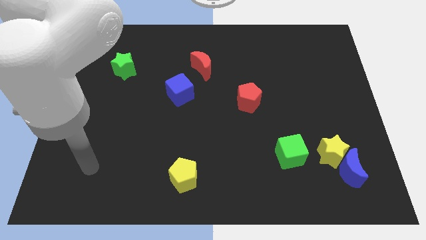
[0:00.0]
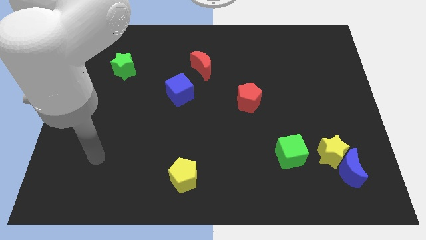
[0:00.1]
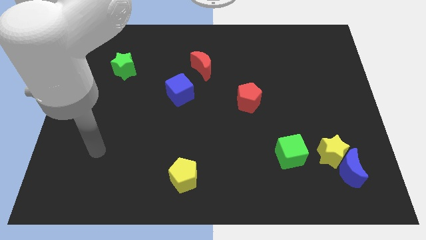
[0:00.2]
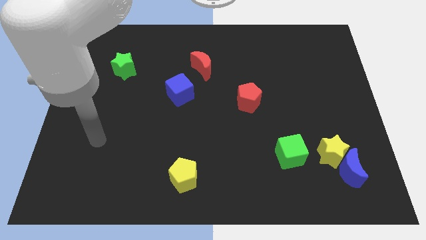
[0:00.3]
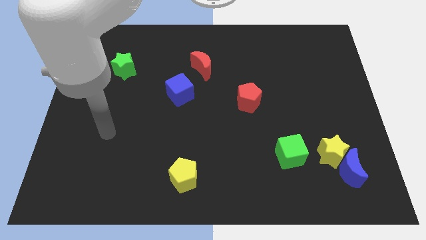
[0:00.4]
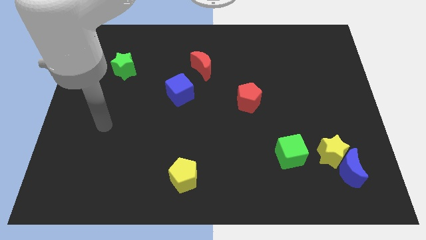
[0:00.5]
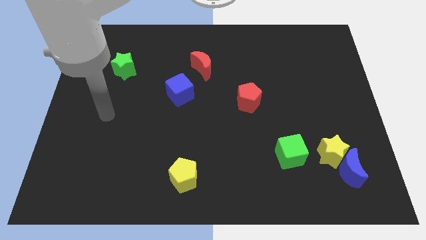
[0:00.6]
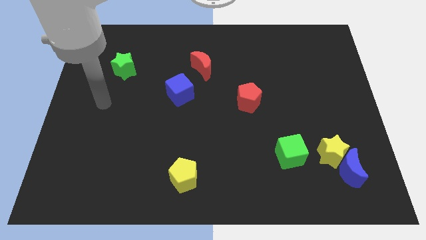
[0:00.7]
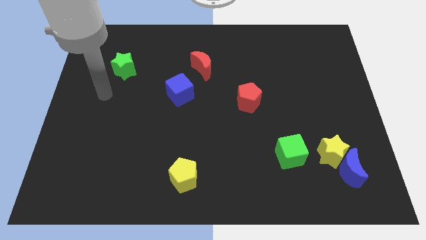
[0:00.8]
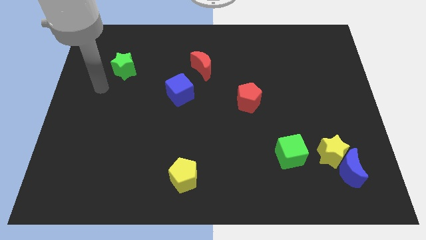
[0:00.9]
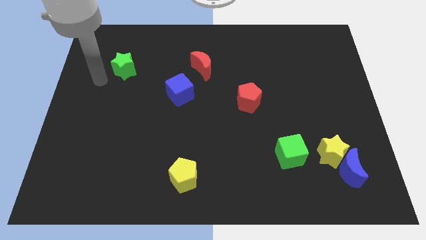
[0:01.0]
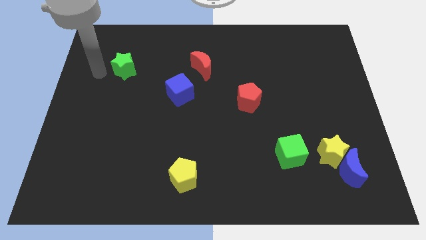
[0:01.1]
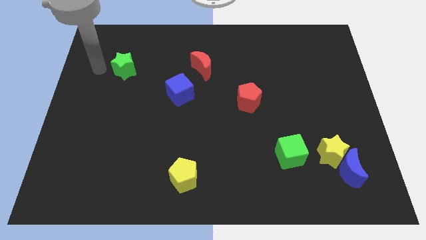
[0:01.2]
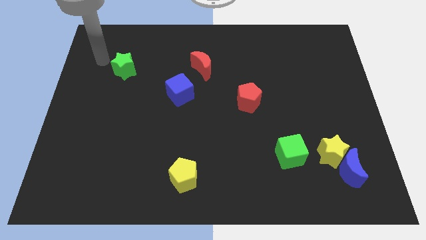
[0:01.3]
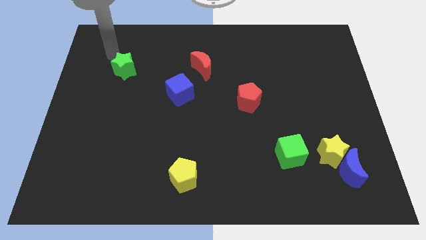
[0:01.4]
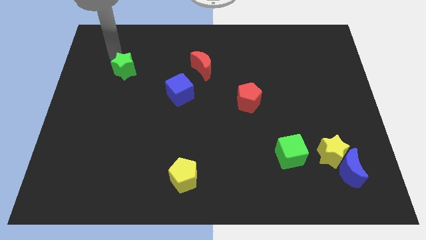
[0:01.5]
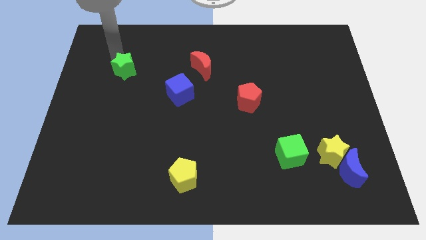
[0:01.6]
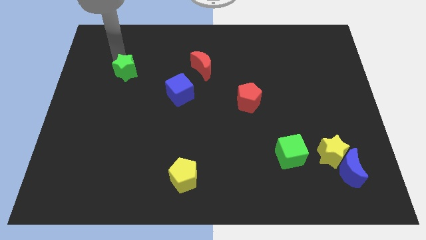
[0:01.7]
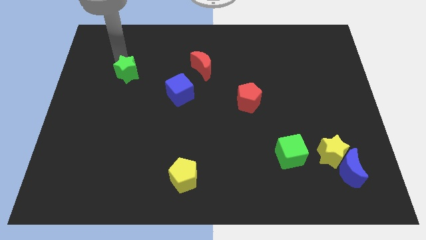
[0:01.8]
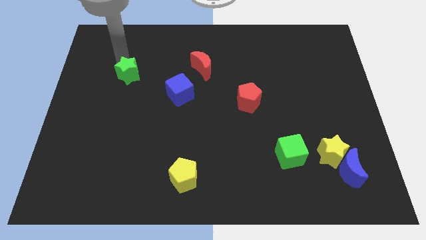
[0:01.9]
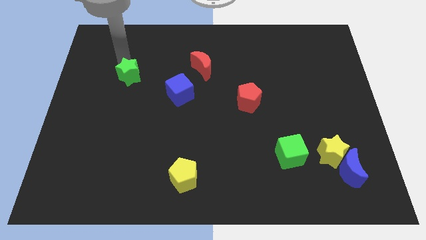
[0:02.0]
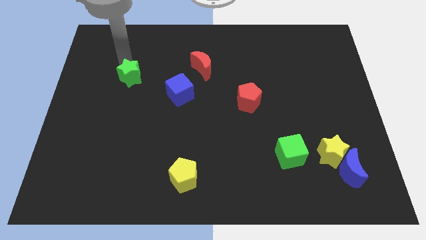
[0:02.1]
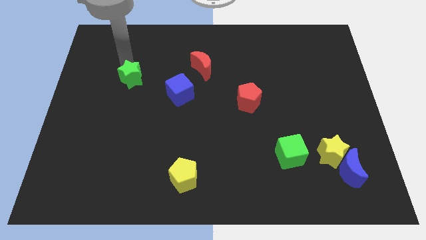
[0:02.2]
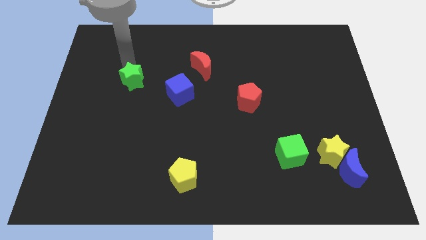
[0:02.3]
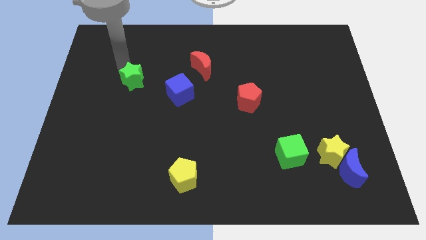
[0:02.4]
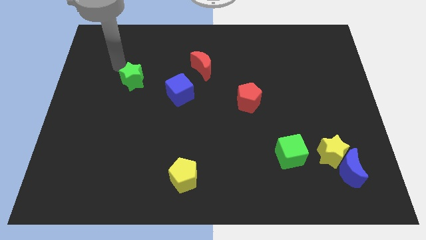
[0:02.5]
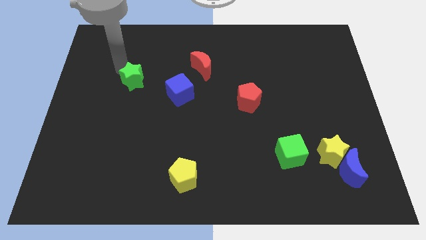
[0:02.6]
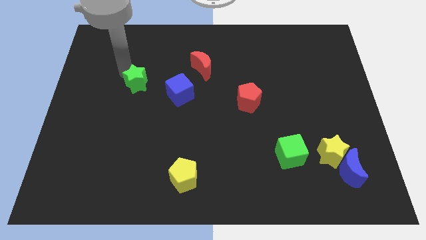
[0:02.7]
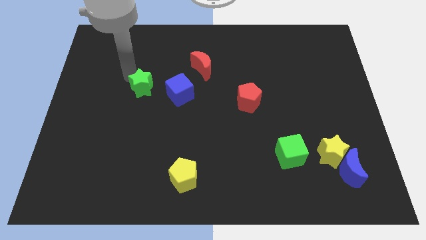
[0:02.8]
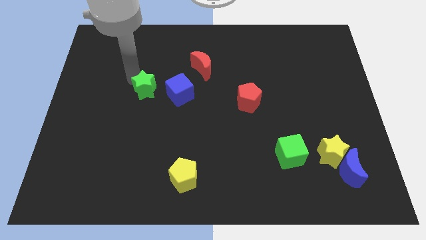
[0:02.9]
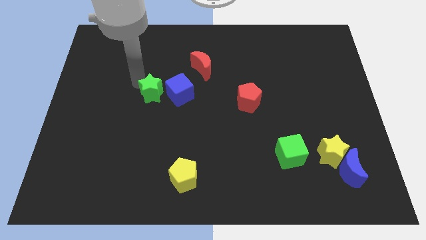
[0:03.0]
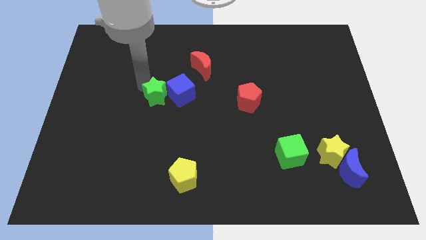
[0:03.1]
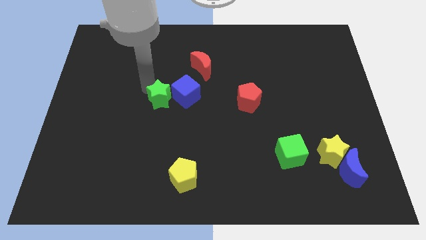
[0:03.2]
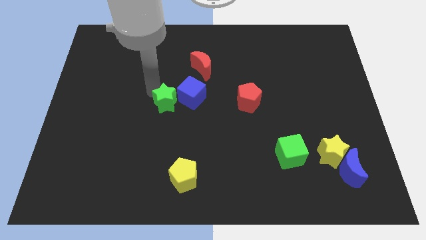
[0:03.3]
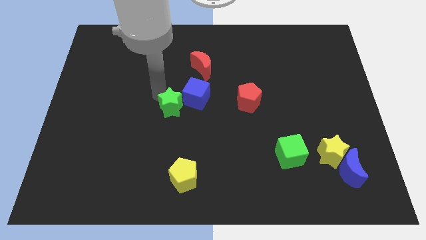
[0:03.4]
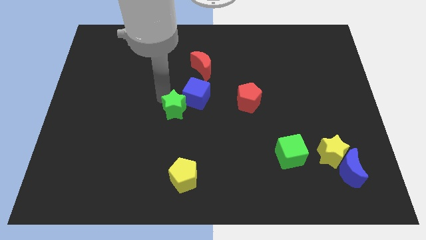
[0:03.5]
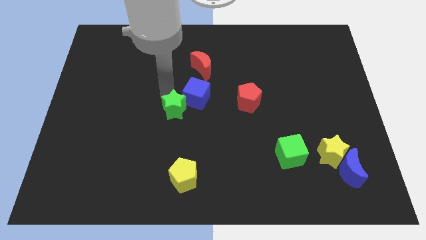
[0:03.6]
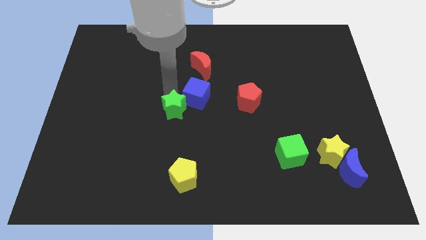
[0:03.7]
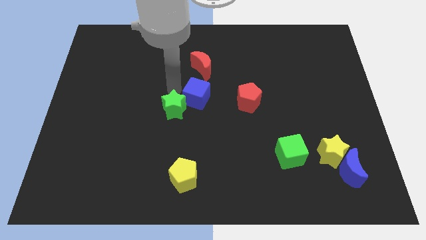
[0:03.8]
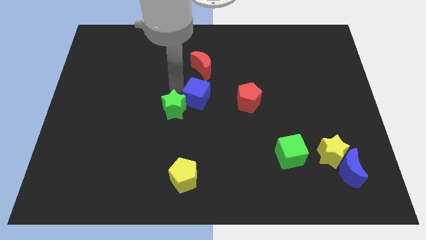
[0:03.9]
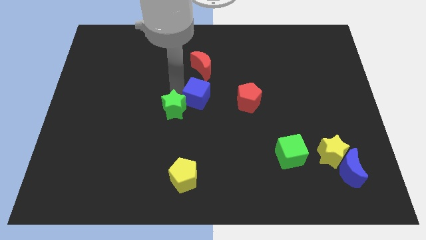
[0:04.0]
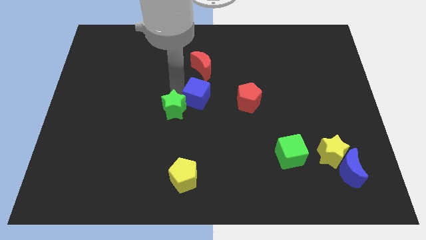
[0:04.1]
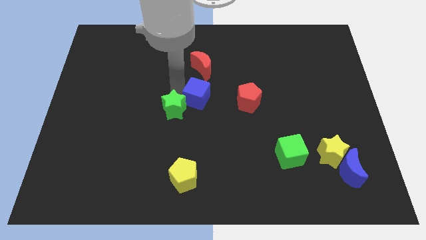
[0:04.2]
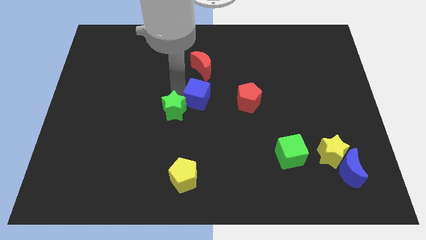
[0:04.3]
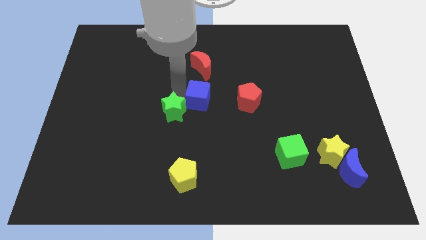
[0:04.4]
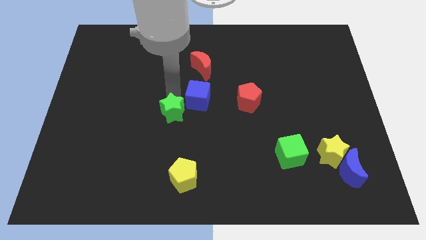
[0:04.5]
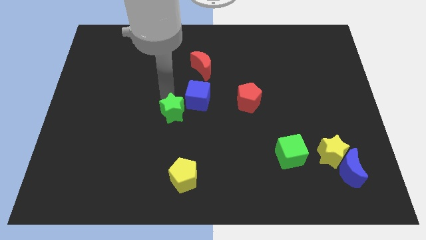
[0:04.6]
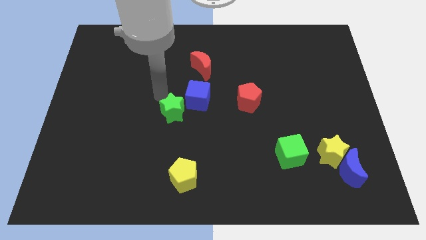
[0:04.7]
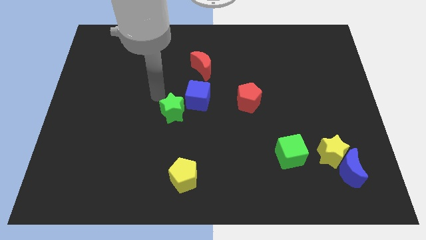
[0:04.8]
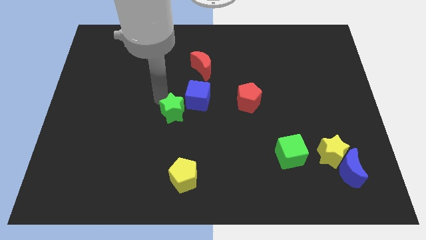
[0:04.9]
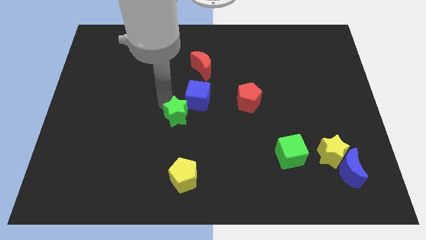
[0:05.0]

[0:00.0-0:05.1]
move the green star downwards and then to the right

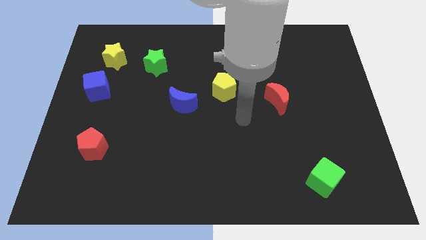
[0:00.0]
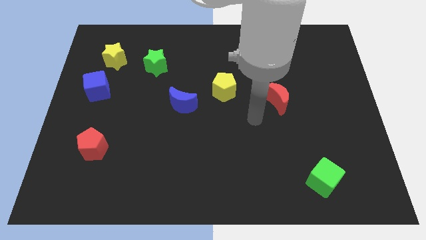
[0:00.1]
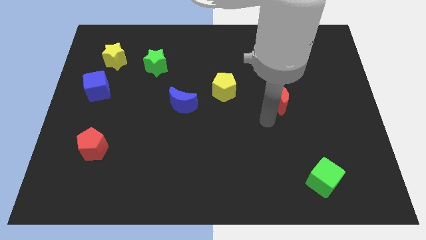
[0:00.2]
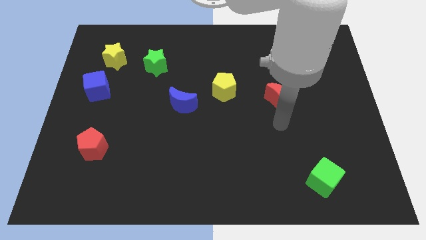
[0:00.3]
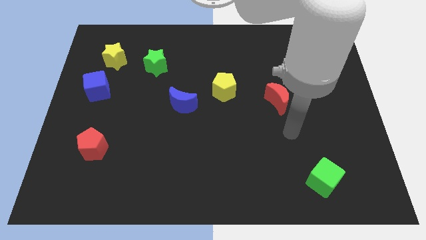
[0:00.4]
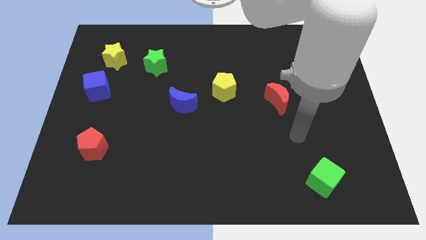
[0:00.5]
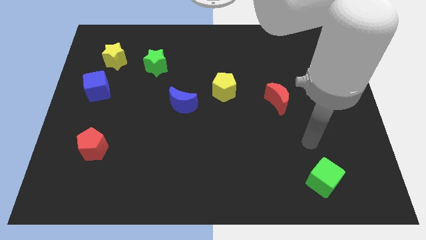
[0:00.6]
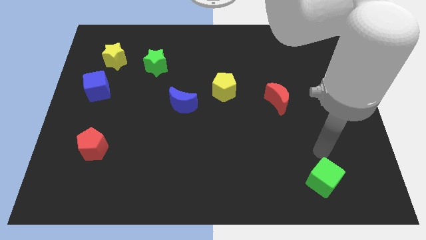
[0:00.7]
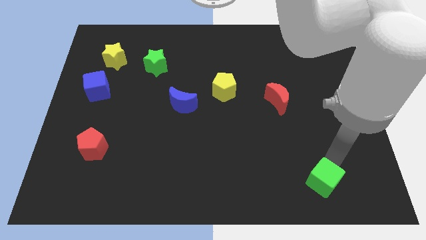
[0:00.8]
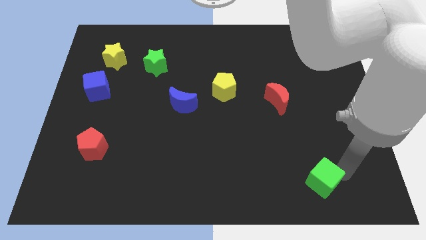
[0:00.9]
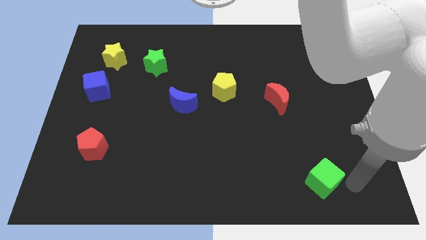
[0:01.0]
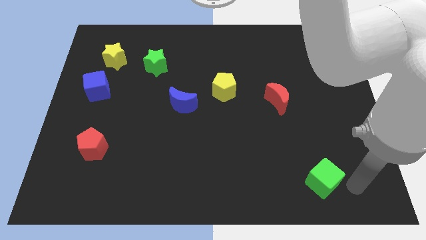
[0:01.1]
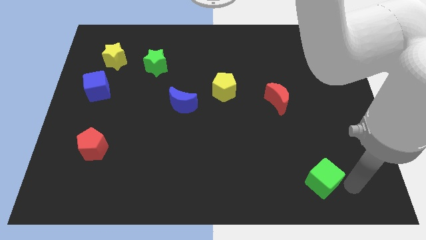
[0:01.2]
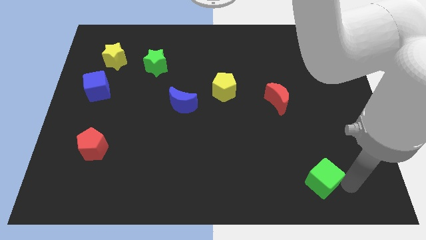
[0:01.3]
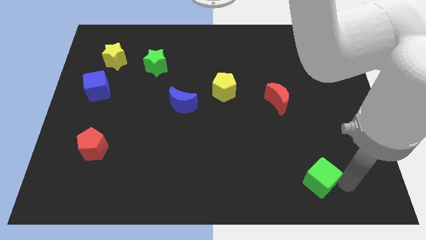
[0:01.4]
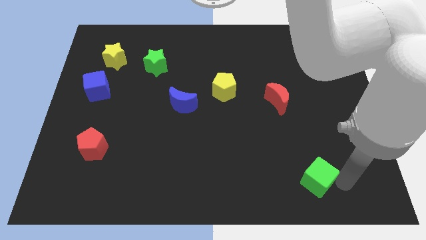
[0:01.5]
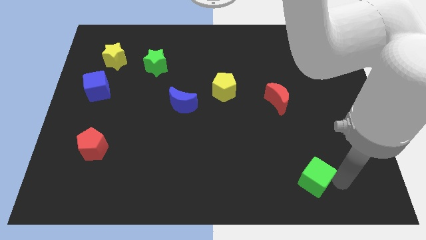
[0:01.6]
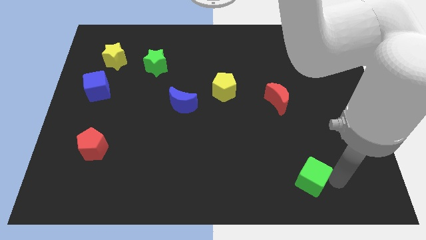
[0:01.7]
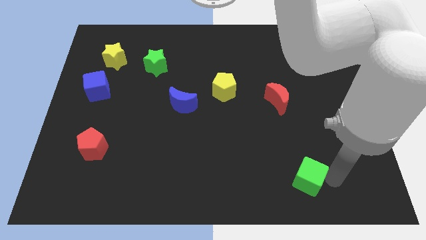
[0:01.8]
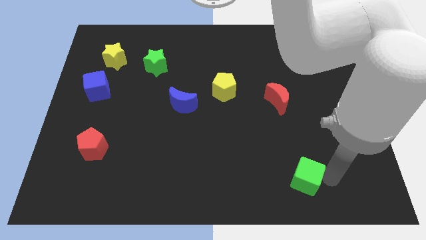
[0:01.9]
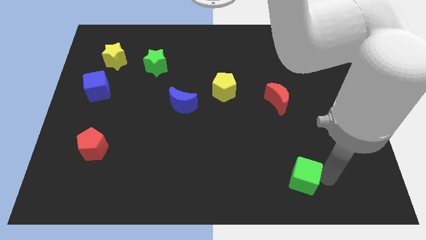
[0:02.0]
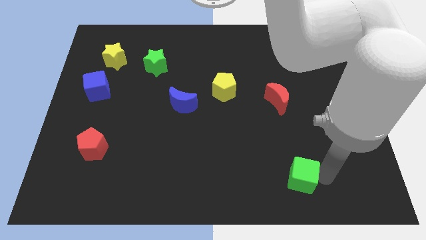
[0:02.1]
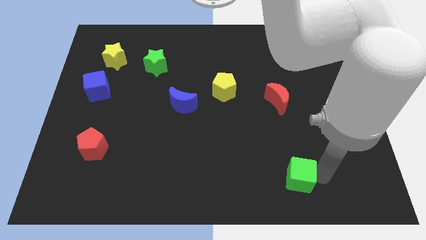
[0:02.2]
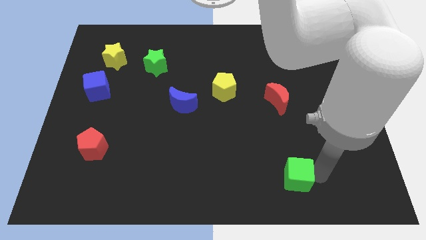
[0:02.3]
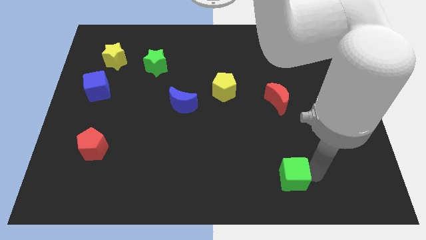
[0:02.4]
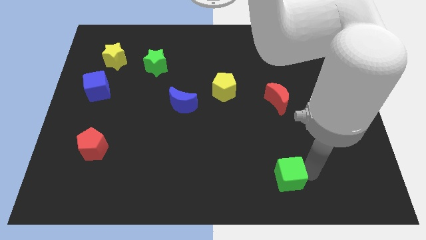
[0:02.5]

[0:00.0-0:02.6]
push the green cube left somewhat

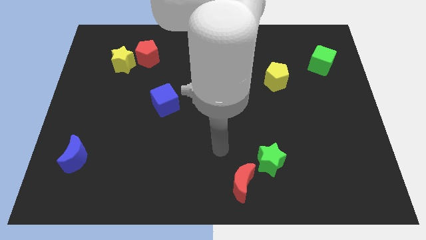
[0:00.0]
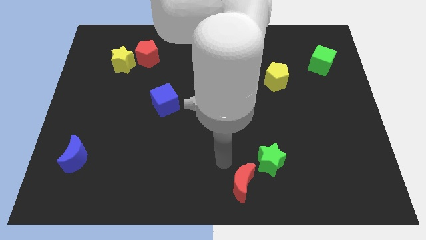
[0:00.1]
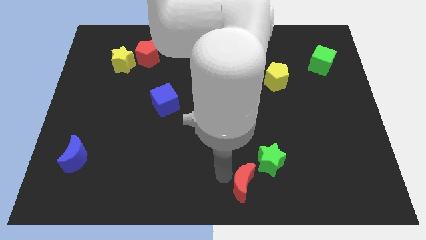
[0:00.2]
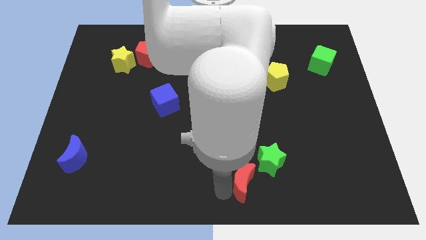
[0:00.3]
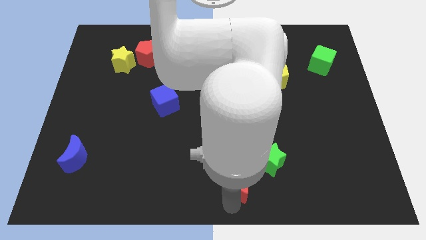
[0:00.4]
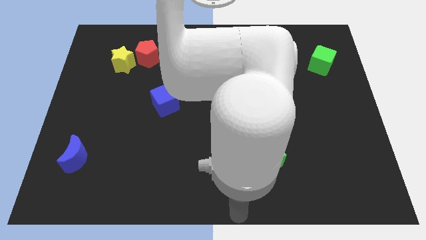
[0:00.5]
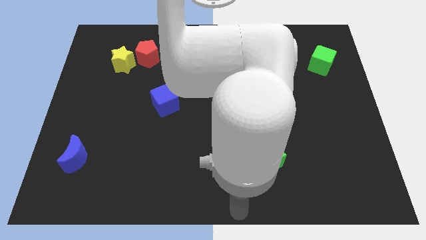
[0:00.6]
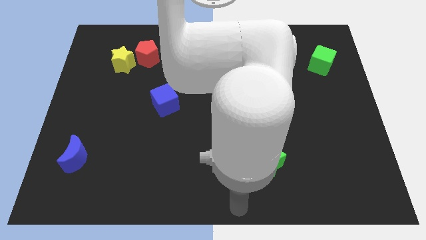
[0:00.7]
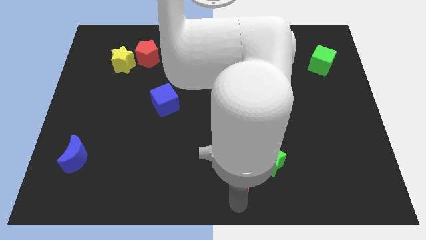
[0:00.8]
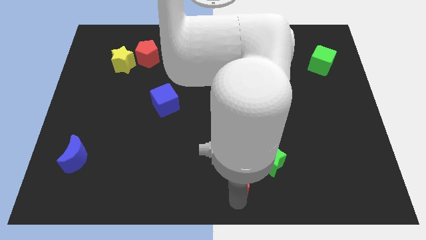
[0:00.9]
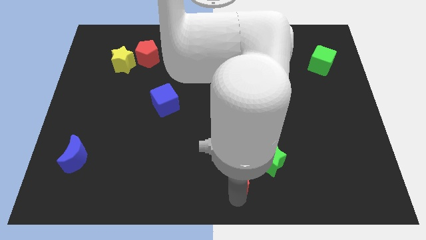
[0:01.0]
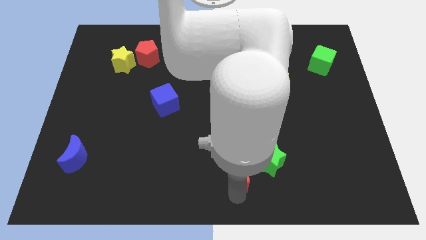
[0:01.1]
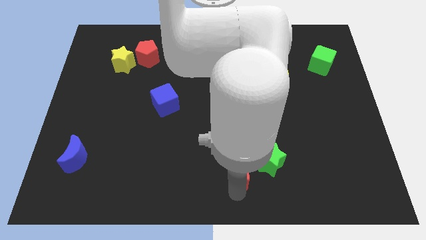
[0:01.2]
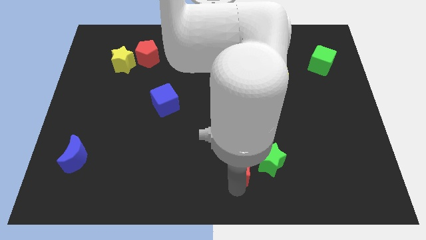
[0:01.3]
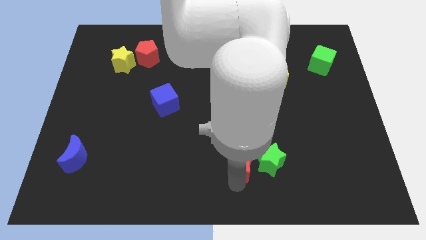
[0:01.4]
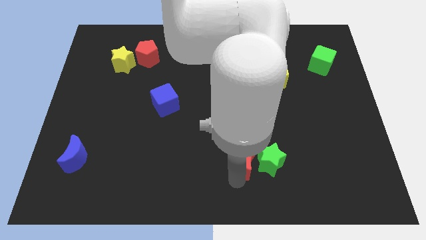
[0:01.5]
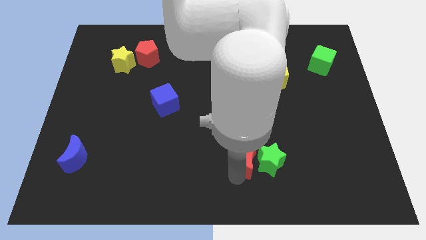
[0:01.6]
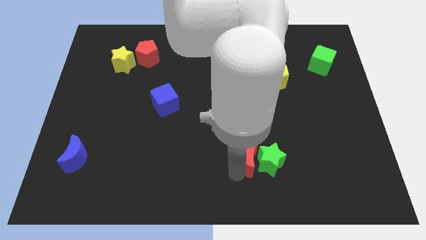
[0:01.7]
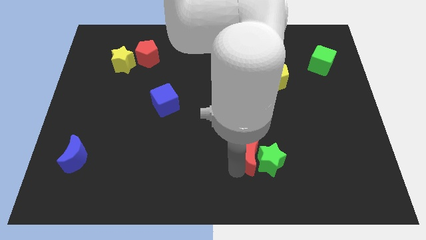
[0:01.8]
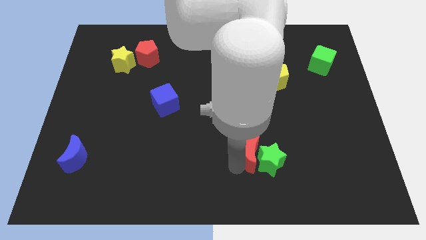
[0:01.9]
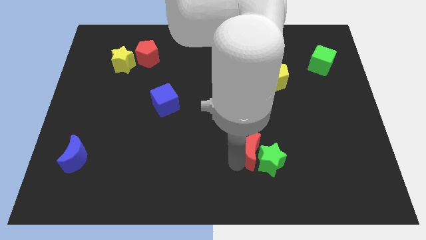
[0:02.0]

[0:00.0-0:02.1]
move the red moon up a little
